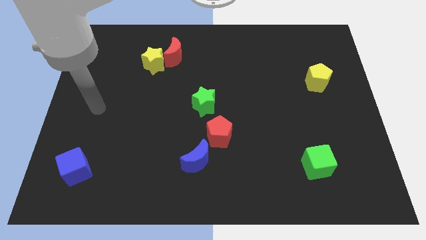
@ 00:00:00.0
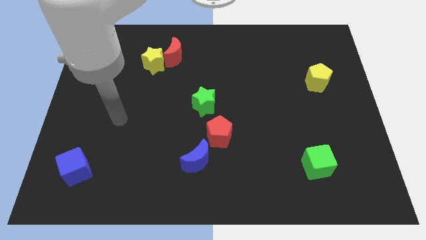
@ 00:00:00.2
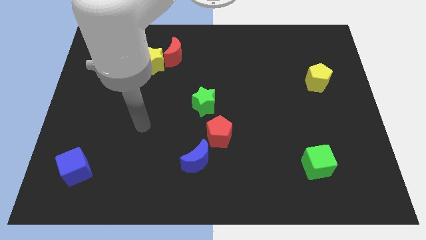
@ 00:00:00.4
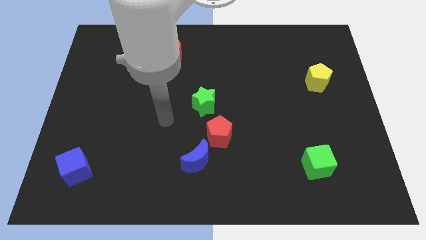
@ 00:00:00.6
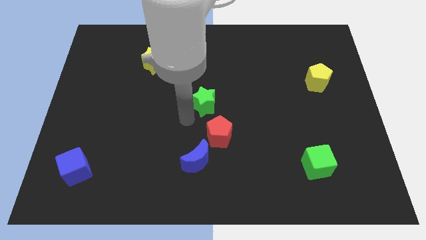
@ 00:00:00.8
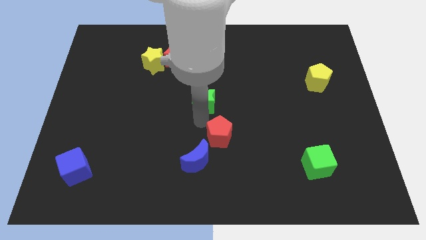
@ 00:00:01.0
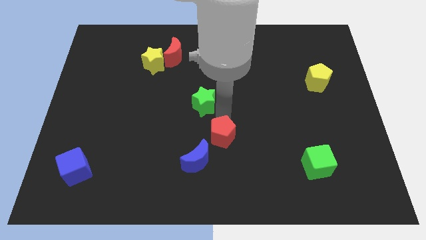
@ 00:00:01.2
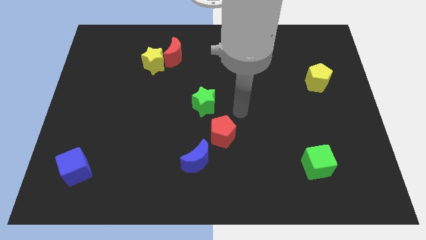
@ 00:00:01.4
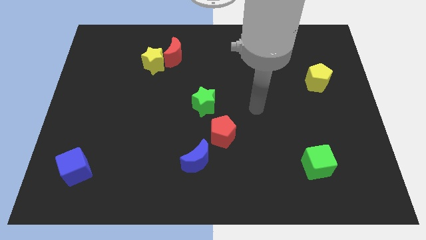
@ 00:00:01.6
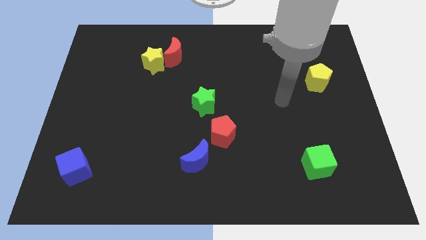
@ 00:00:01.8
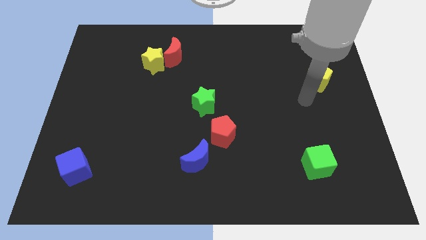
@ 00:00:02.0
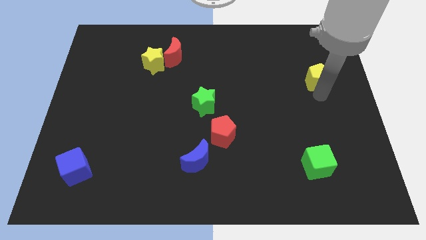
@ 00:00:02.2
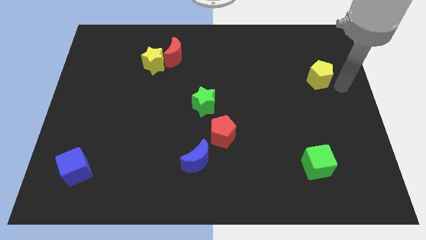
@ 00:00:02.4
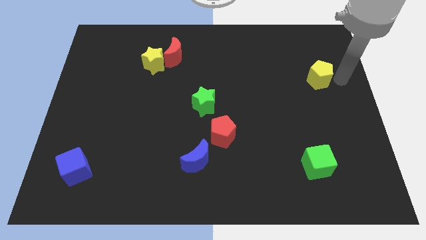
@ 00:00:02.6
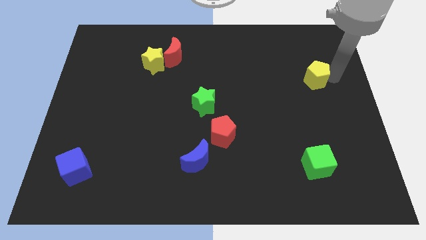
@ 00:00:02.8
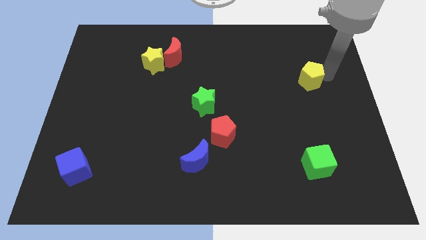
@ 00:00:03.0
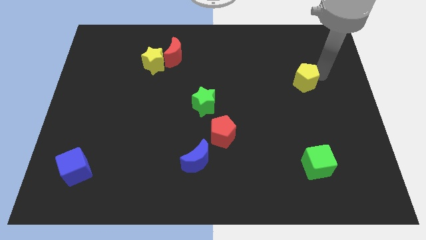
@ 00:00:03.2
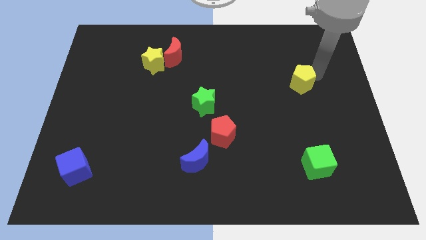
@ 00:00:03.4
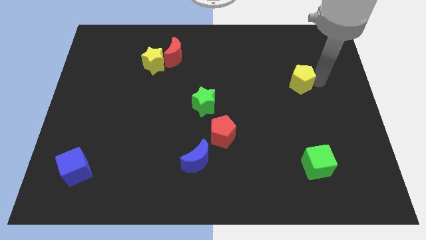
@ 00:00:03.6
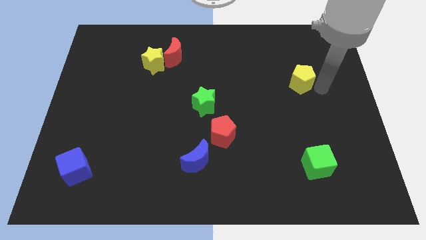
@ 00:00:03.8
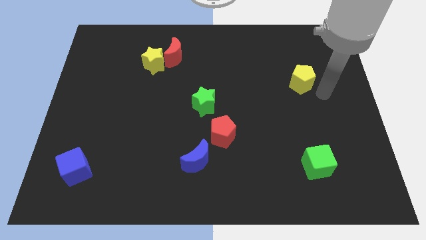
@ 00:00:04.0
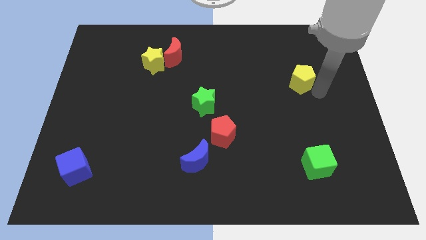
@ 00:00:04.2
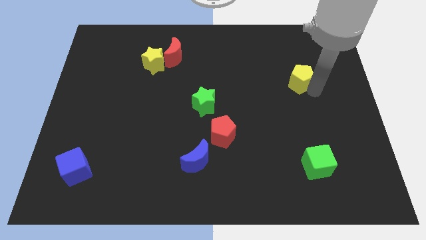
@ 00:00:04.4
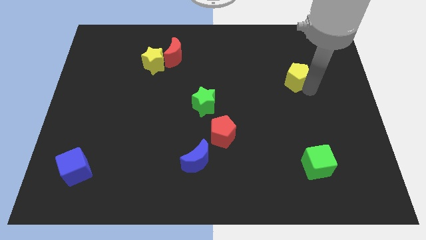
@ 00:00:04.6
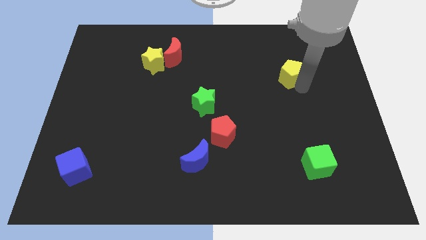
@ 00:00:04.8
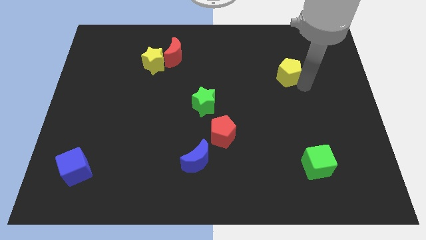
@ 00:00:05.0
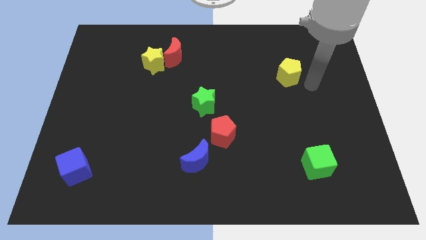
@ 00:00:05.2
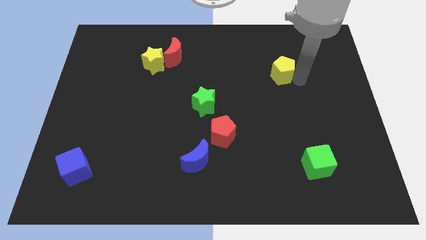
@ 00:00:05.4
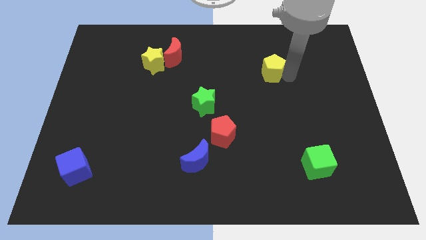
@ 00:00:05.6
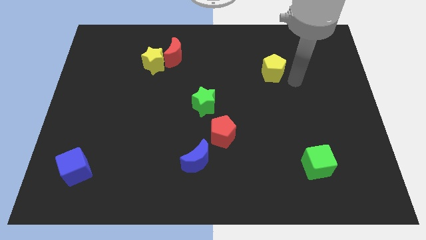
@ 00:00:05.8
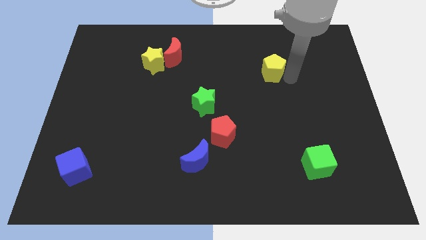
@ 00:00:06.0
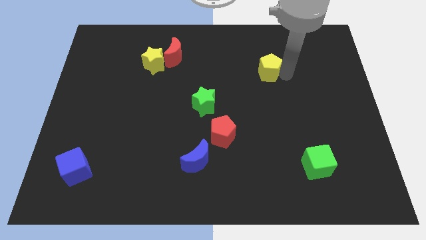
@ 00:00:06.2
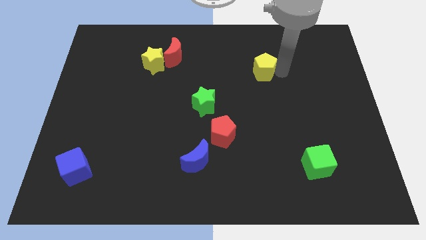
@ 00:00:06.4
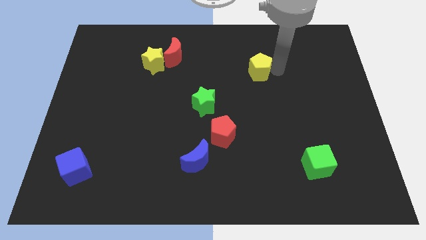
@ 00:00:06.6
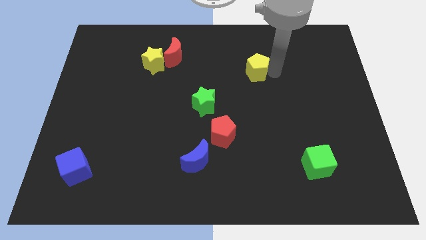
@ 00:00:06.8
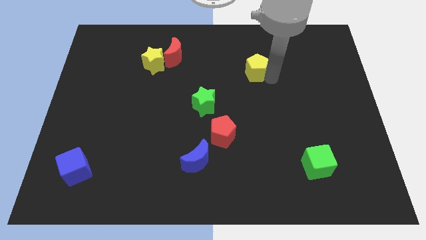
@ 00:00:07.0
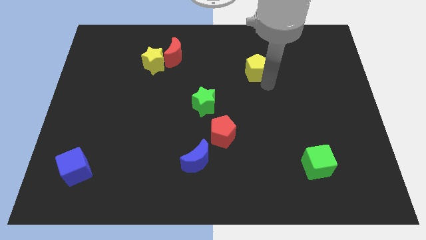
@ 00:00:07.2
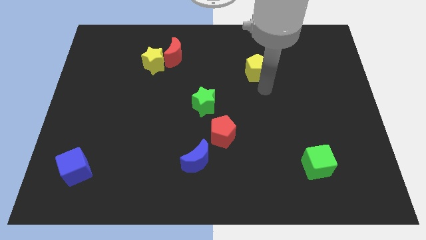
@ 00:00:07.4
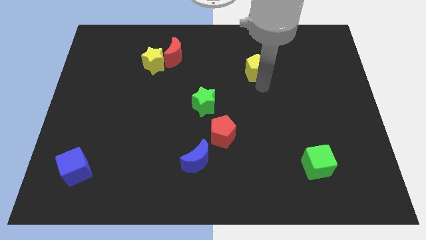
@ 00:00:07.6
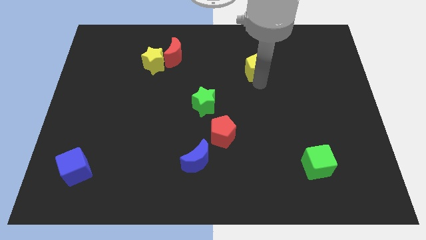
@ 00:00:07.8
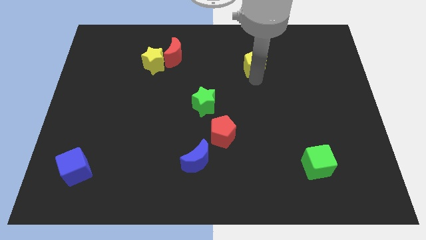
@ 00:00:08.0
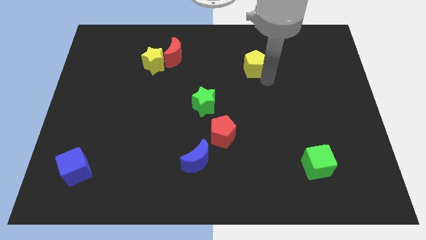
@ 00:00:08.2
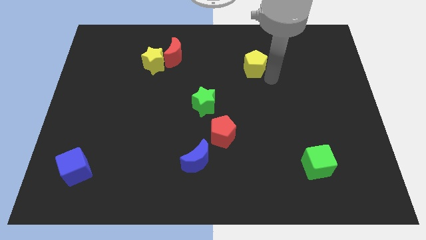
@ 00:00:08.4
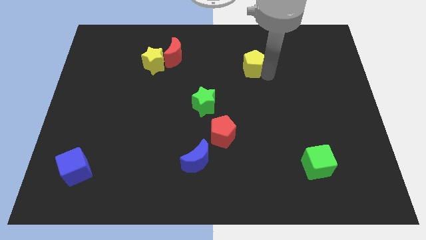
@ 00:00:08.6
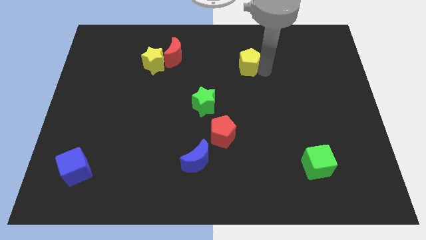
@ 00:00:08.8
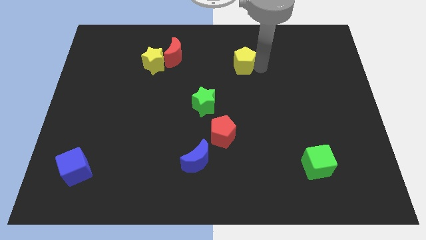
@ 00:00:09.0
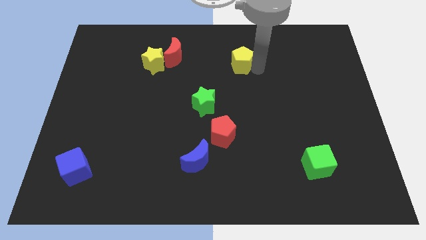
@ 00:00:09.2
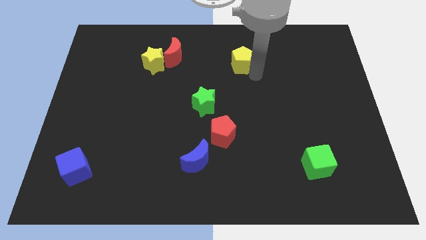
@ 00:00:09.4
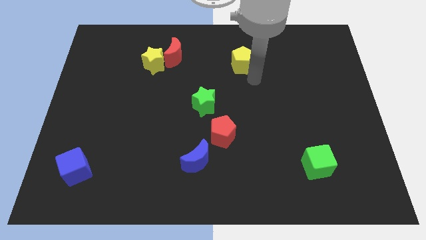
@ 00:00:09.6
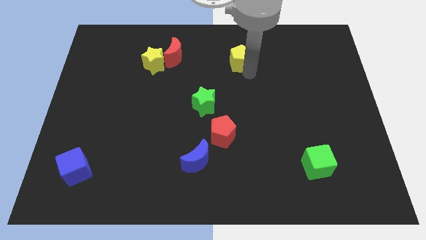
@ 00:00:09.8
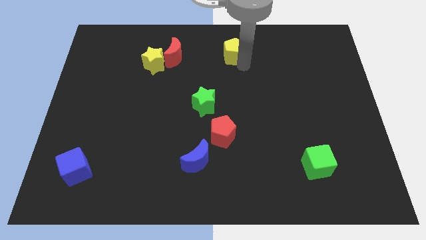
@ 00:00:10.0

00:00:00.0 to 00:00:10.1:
move the yellow pentagon to the towards your base

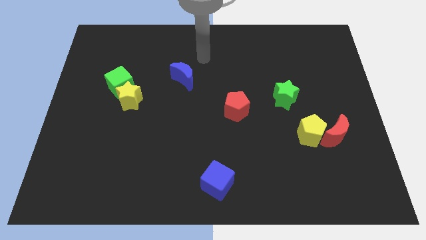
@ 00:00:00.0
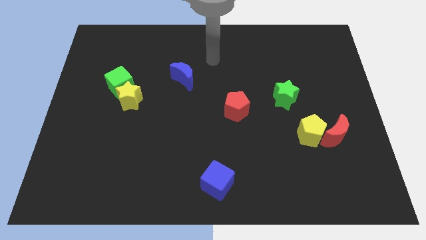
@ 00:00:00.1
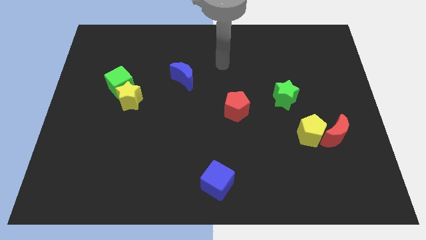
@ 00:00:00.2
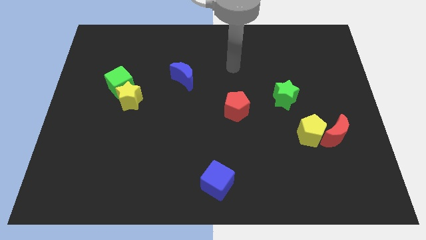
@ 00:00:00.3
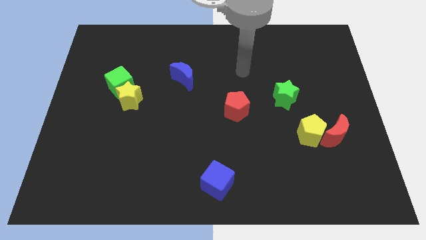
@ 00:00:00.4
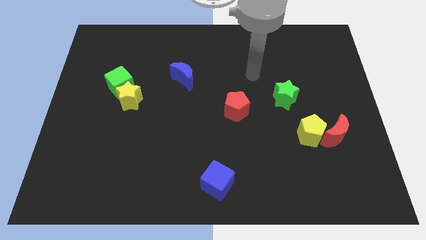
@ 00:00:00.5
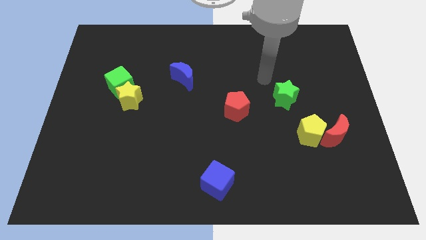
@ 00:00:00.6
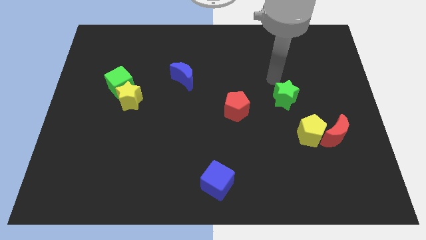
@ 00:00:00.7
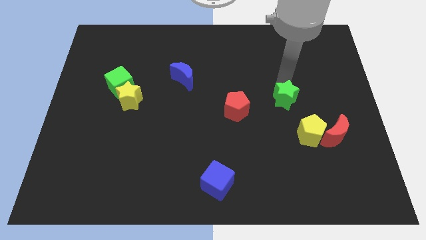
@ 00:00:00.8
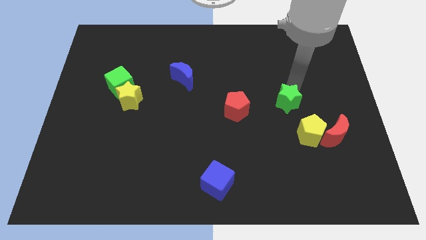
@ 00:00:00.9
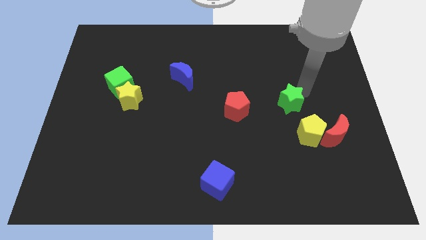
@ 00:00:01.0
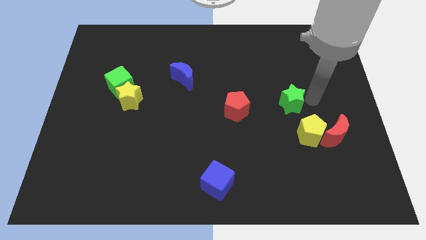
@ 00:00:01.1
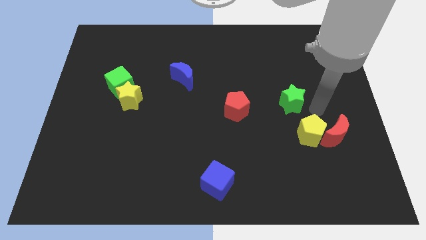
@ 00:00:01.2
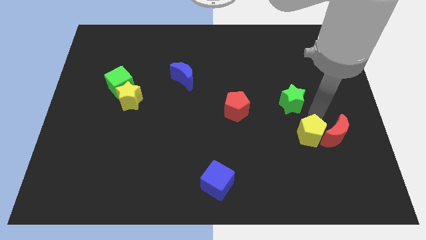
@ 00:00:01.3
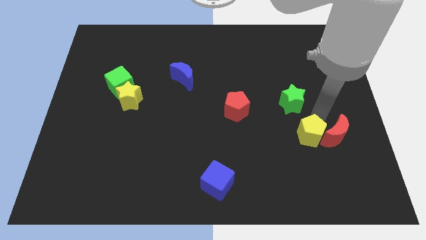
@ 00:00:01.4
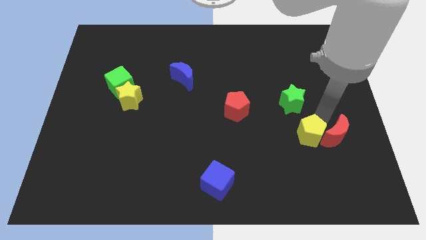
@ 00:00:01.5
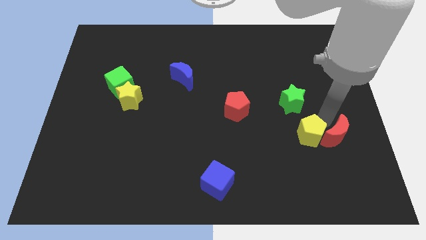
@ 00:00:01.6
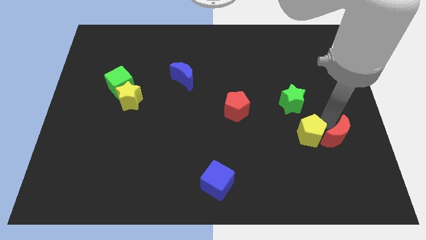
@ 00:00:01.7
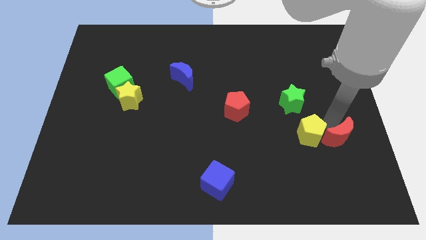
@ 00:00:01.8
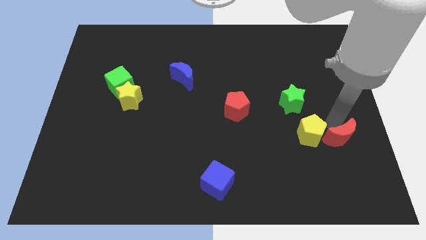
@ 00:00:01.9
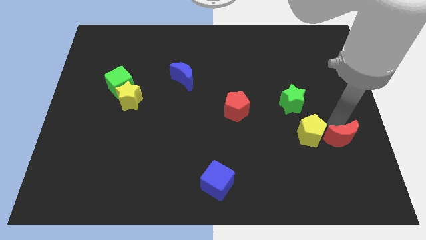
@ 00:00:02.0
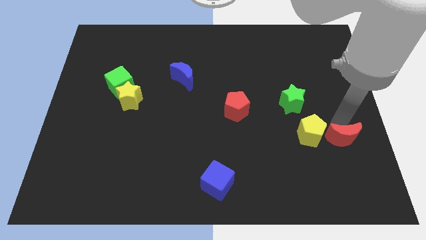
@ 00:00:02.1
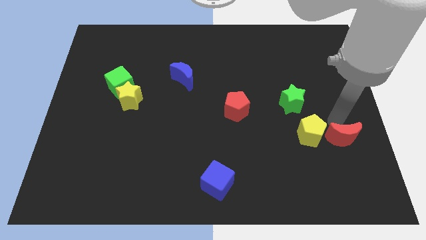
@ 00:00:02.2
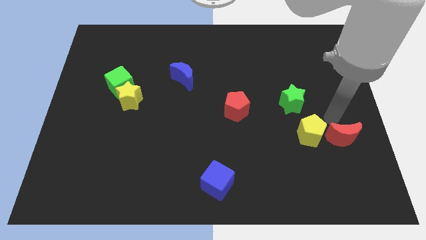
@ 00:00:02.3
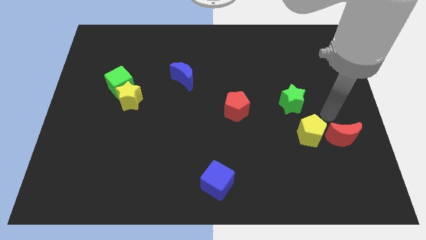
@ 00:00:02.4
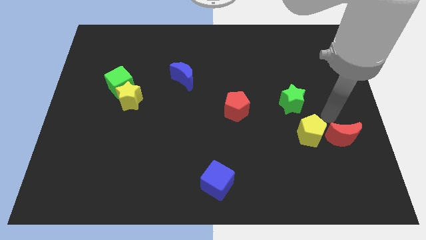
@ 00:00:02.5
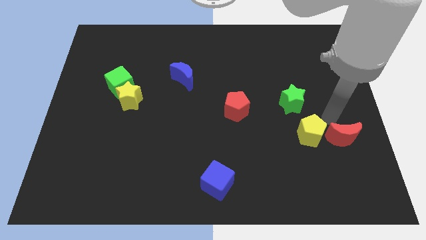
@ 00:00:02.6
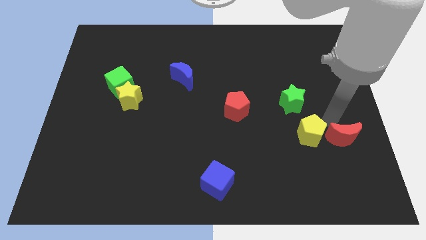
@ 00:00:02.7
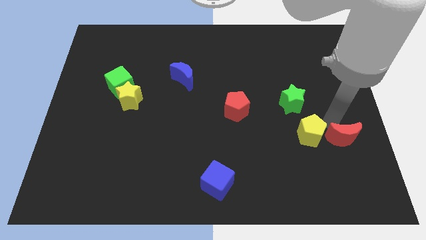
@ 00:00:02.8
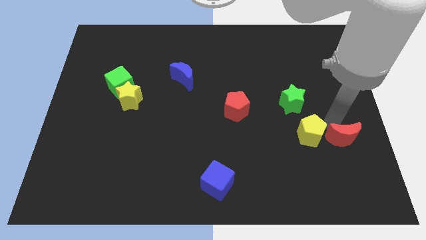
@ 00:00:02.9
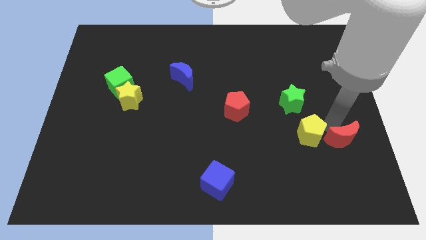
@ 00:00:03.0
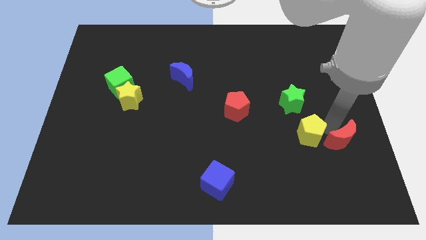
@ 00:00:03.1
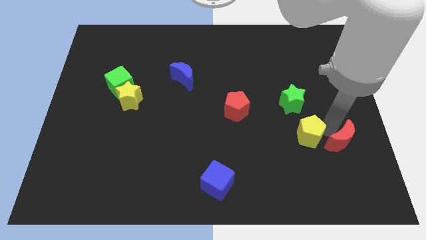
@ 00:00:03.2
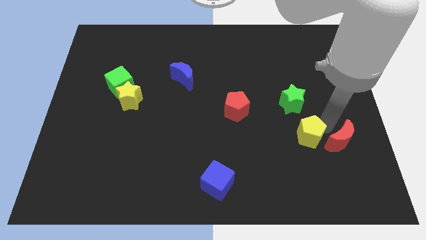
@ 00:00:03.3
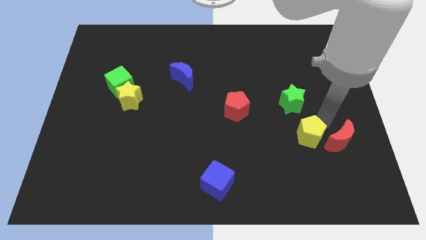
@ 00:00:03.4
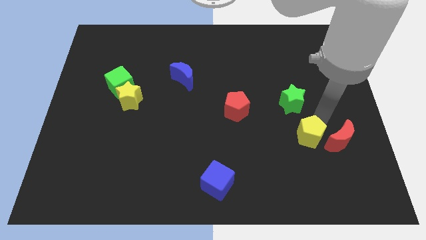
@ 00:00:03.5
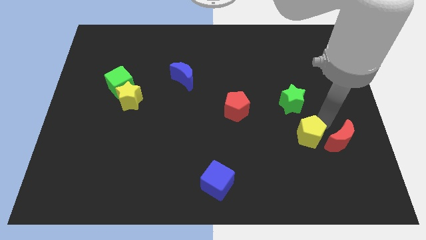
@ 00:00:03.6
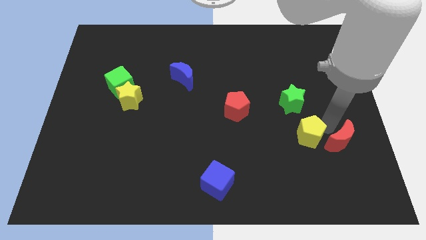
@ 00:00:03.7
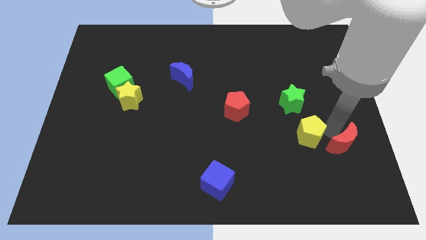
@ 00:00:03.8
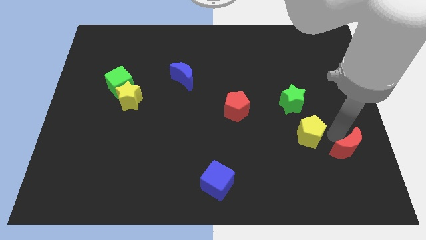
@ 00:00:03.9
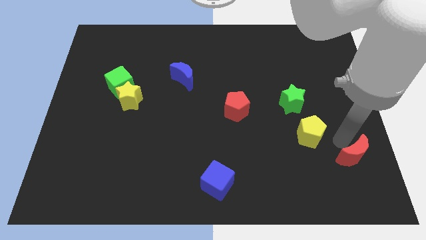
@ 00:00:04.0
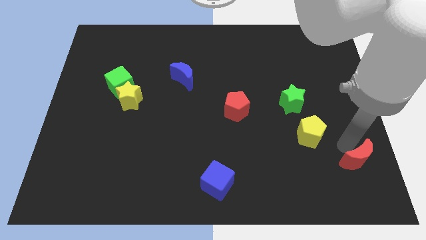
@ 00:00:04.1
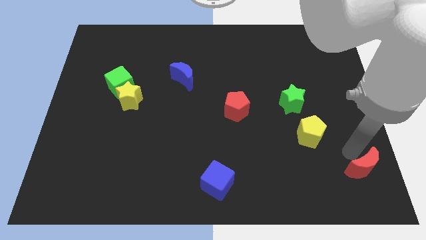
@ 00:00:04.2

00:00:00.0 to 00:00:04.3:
push the red moon to the lower right corner
